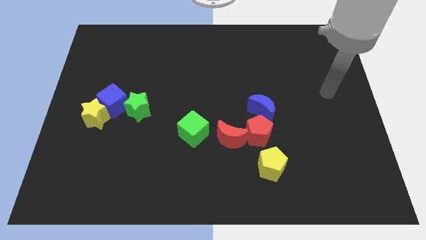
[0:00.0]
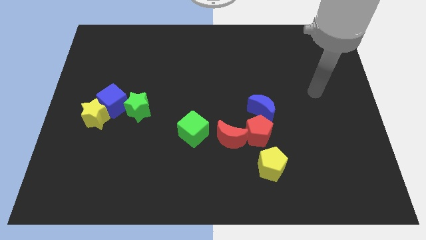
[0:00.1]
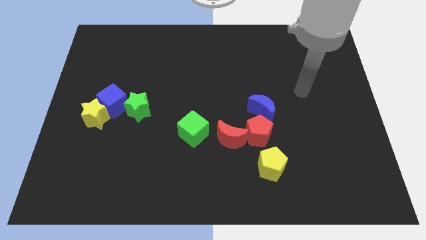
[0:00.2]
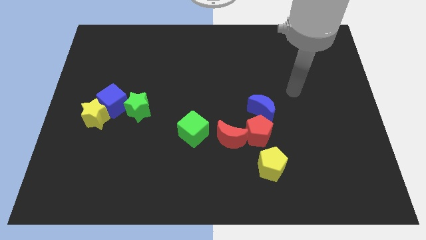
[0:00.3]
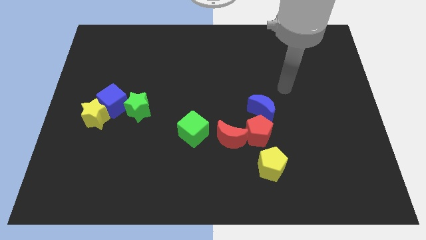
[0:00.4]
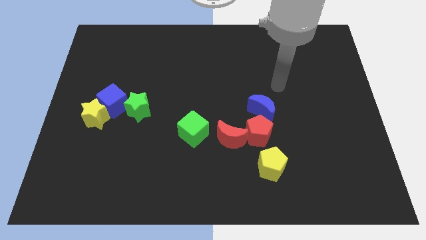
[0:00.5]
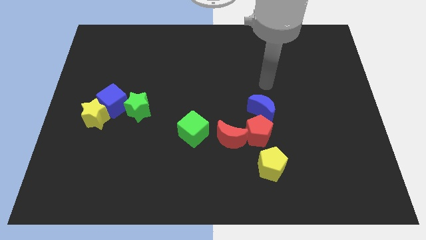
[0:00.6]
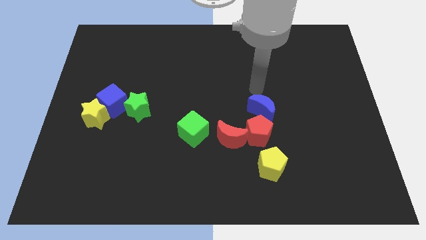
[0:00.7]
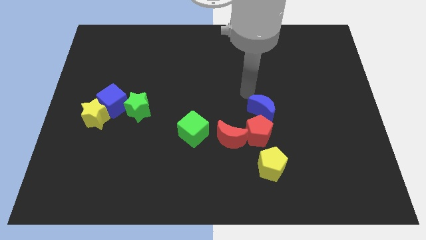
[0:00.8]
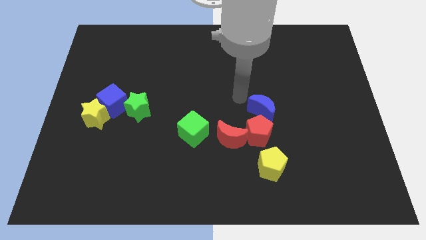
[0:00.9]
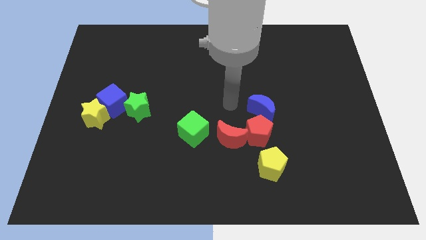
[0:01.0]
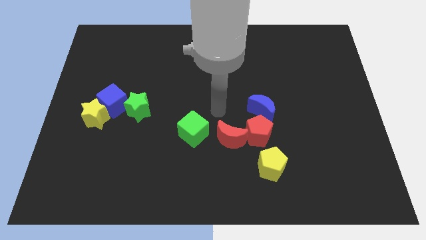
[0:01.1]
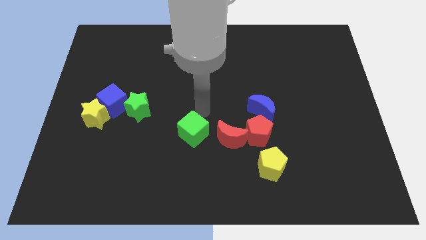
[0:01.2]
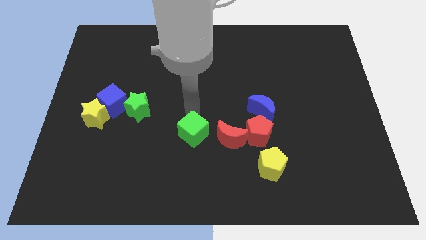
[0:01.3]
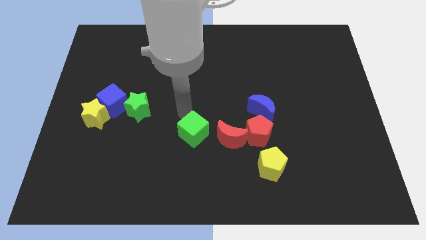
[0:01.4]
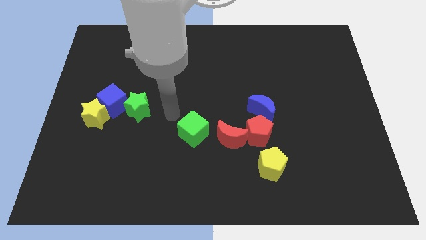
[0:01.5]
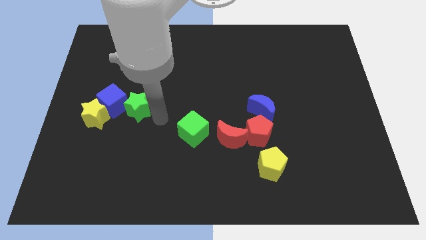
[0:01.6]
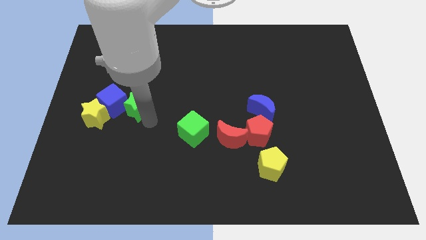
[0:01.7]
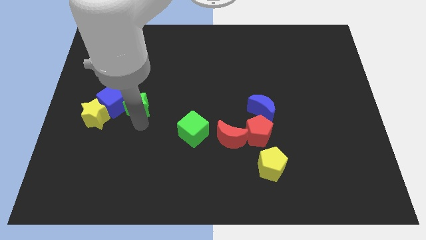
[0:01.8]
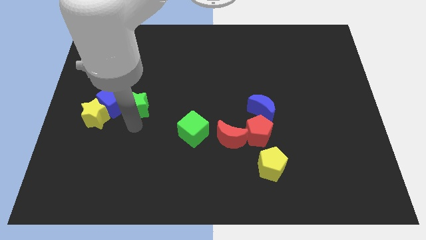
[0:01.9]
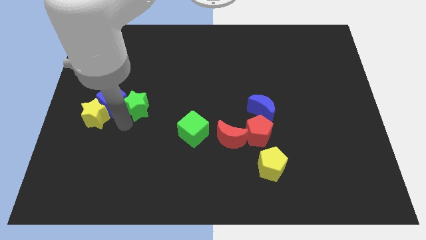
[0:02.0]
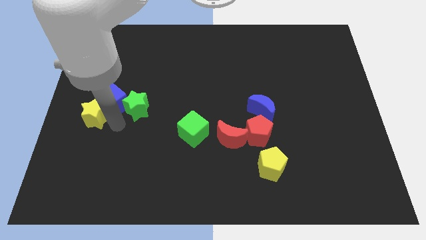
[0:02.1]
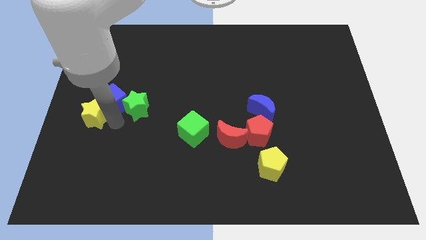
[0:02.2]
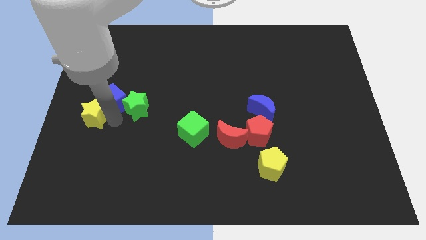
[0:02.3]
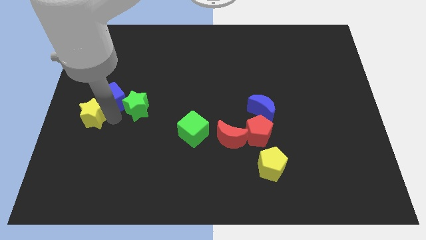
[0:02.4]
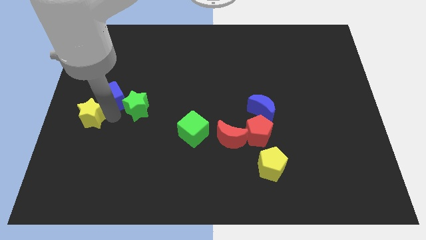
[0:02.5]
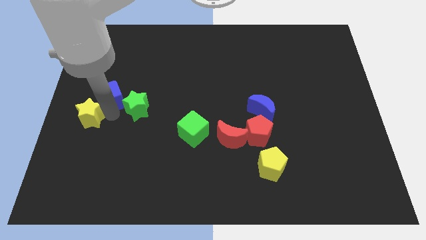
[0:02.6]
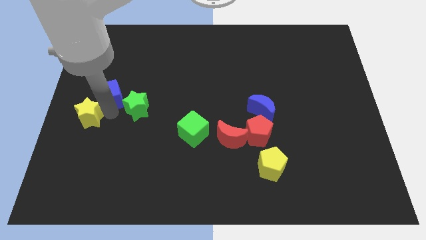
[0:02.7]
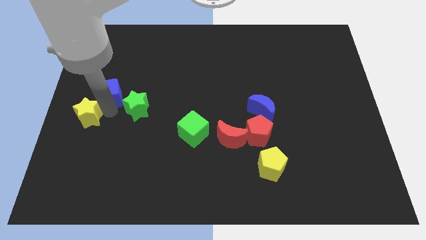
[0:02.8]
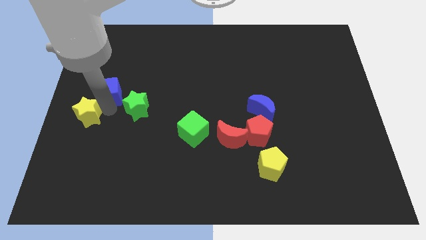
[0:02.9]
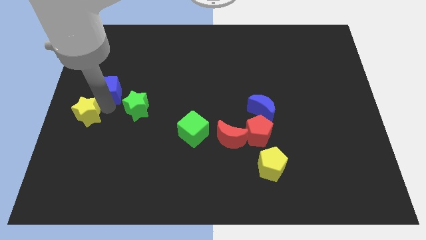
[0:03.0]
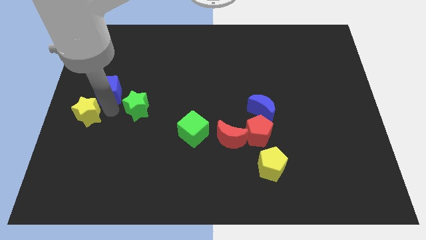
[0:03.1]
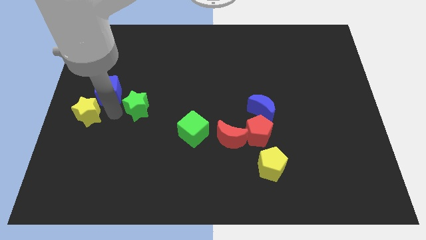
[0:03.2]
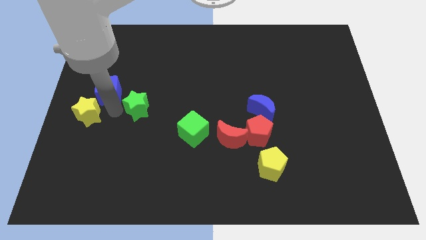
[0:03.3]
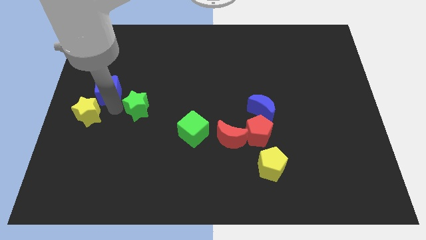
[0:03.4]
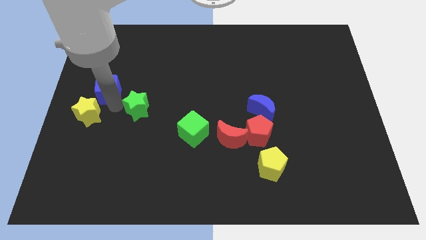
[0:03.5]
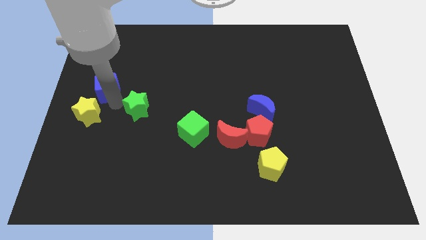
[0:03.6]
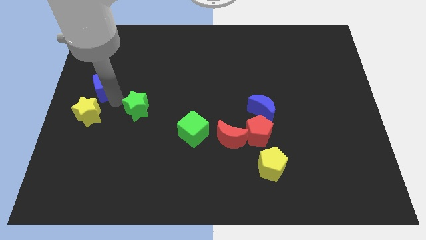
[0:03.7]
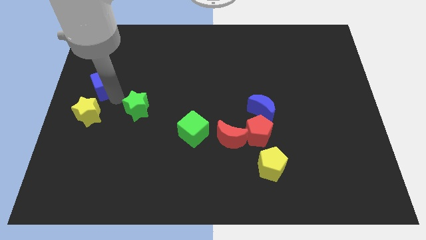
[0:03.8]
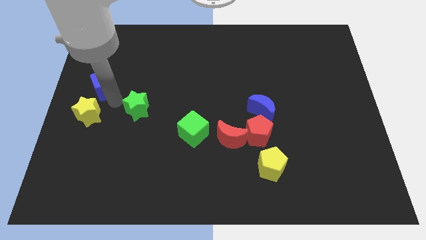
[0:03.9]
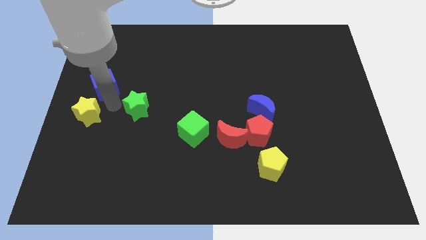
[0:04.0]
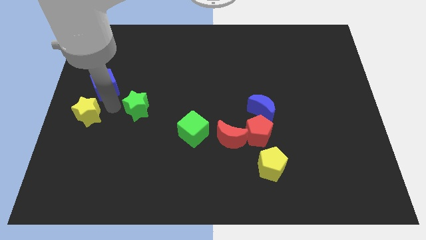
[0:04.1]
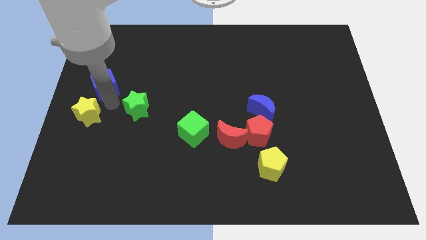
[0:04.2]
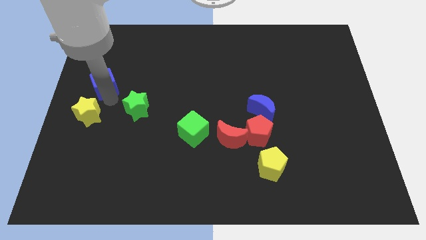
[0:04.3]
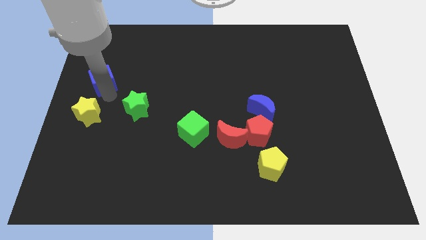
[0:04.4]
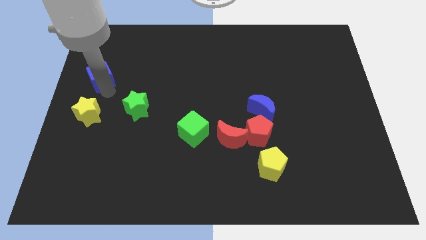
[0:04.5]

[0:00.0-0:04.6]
move the blue cube away from the yellow star and green star

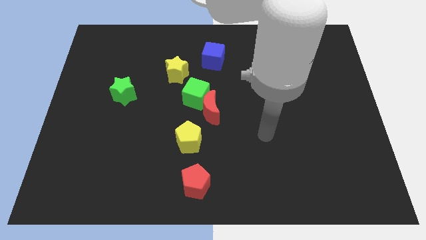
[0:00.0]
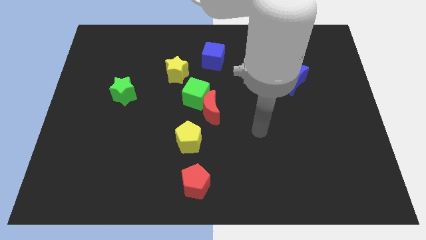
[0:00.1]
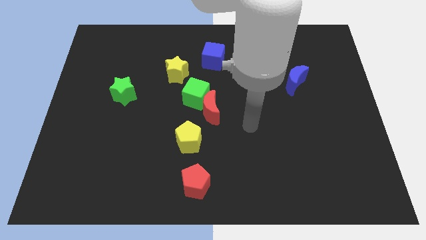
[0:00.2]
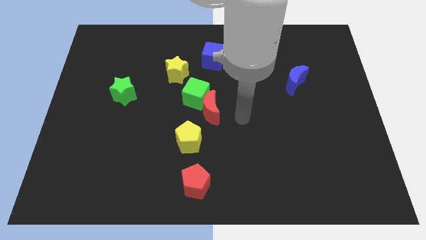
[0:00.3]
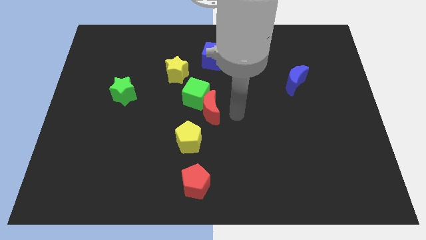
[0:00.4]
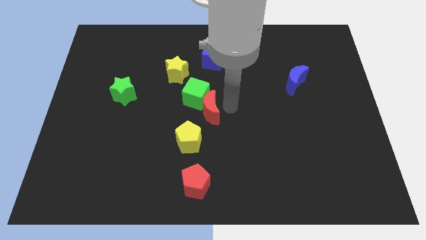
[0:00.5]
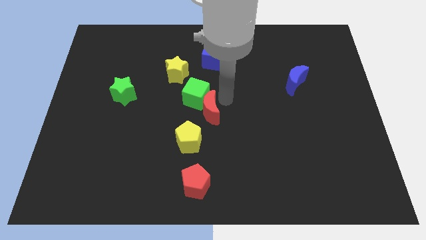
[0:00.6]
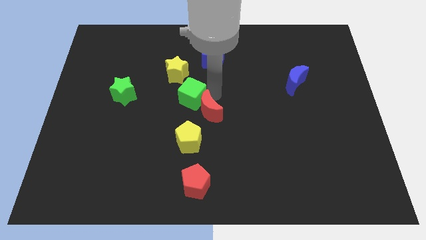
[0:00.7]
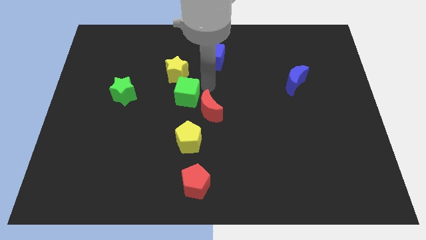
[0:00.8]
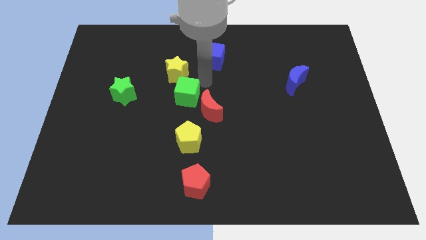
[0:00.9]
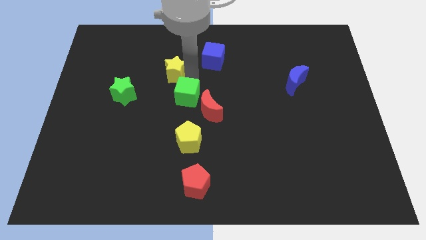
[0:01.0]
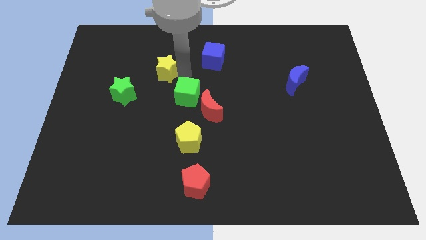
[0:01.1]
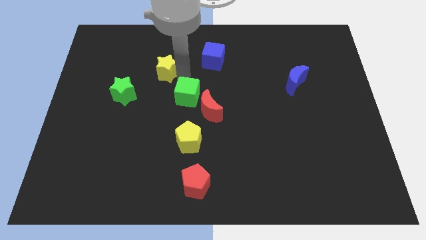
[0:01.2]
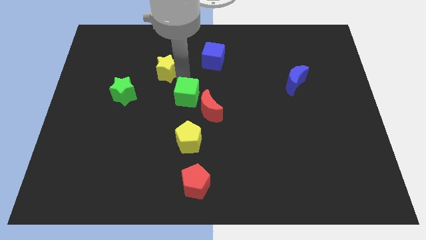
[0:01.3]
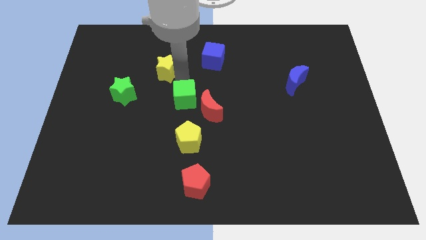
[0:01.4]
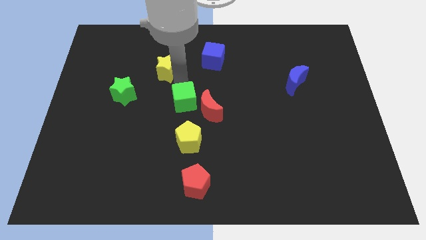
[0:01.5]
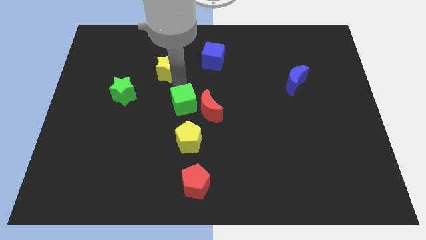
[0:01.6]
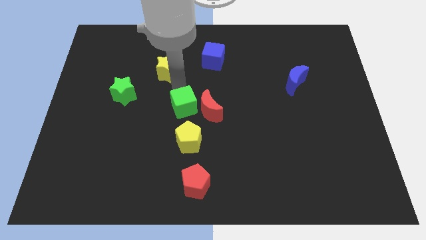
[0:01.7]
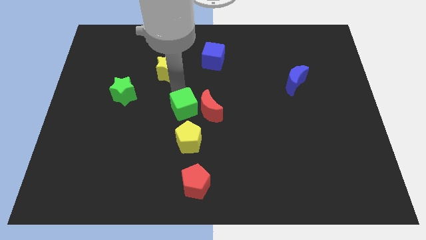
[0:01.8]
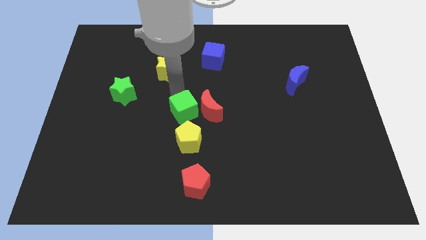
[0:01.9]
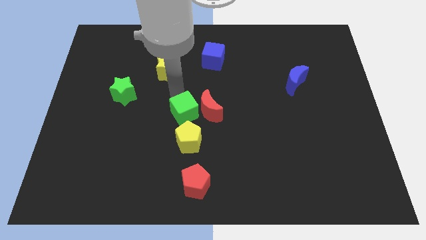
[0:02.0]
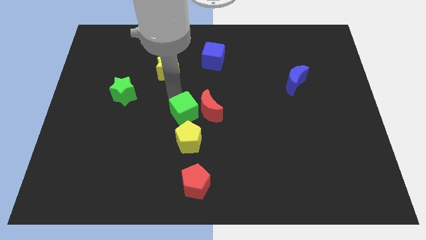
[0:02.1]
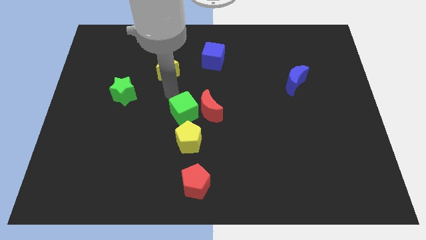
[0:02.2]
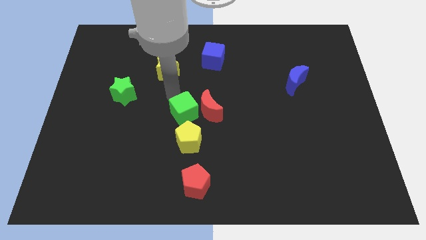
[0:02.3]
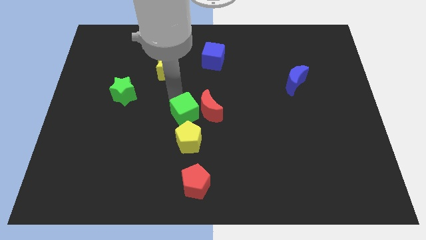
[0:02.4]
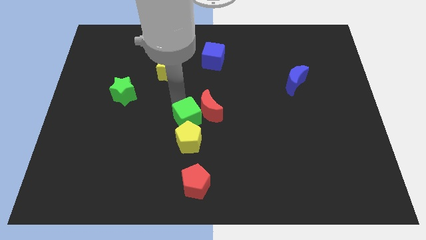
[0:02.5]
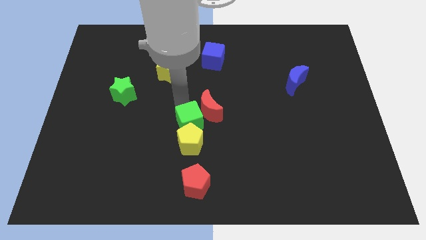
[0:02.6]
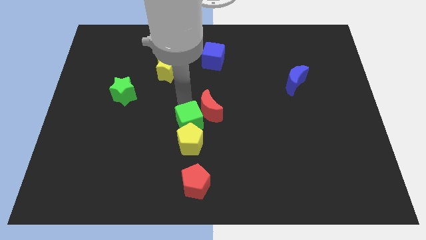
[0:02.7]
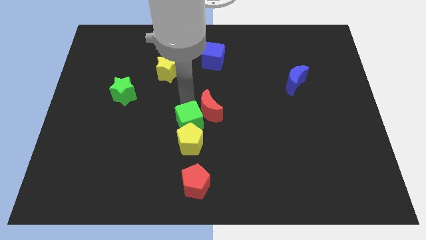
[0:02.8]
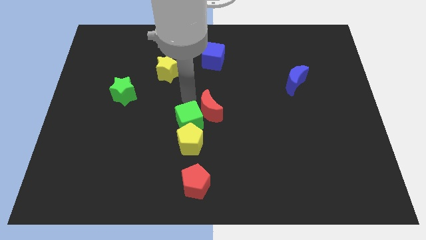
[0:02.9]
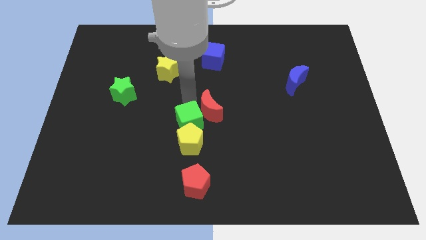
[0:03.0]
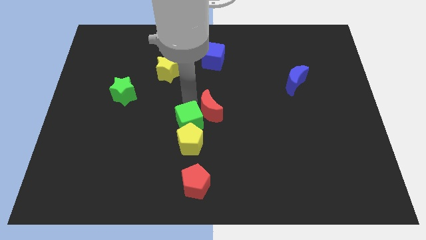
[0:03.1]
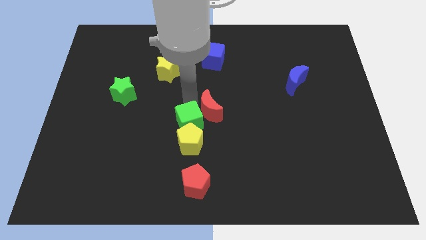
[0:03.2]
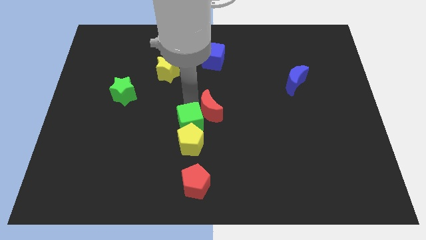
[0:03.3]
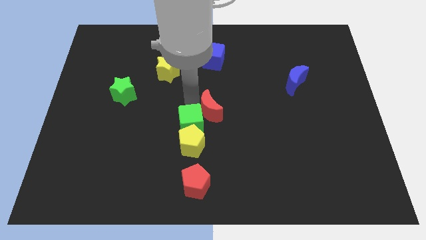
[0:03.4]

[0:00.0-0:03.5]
separate the green cube from the red moon and yellow star

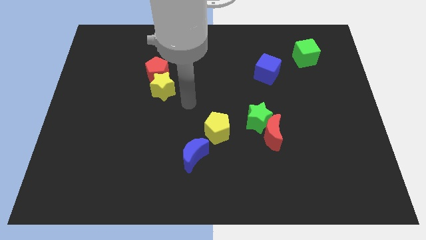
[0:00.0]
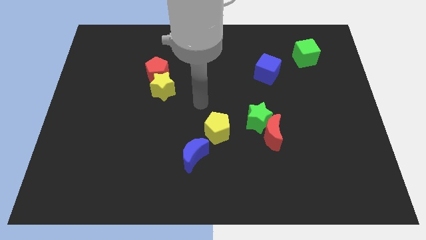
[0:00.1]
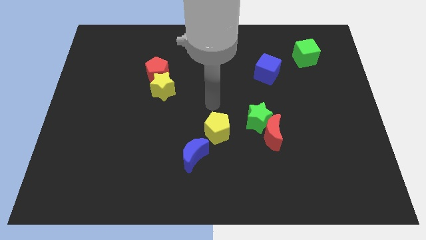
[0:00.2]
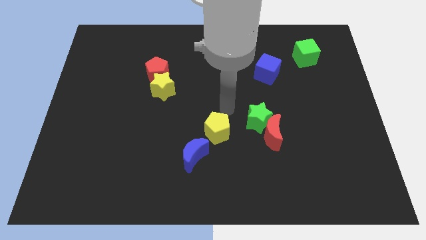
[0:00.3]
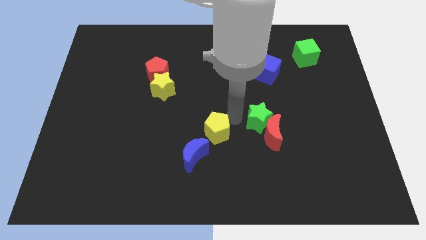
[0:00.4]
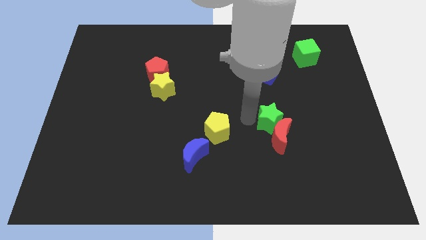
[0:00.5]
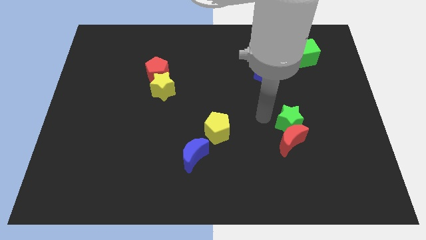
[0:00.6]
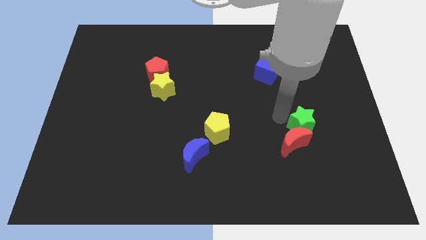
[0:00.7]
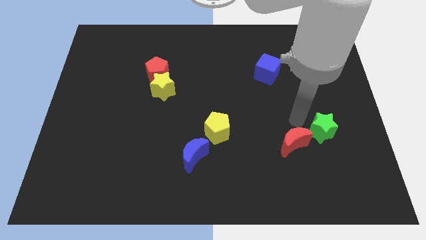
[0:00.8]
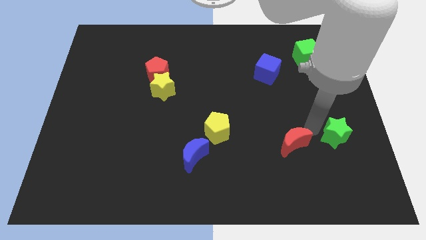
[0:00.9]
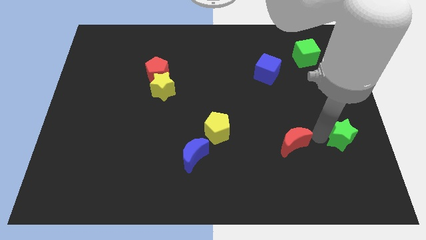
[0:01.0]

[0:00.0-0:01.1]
move the red moon away from the green star

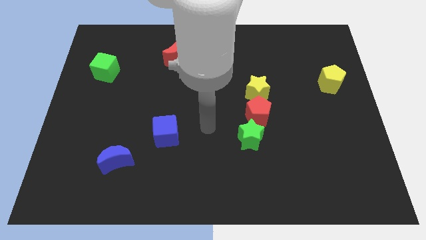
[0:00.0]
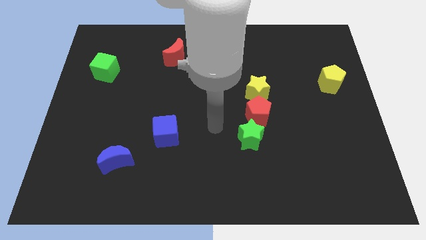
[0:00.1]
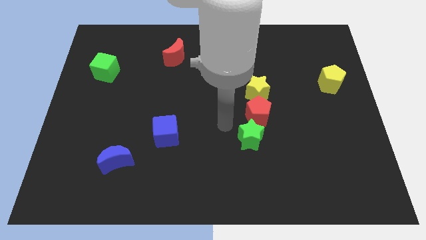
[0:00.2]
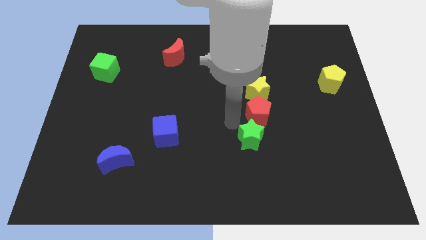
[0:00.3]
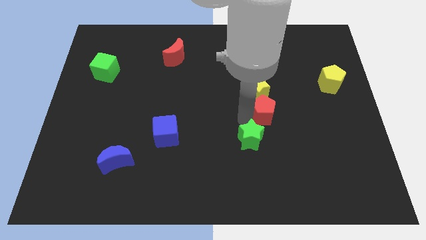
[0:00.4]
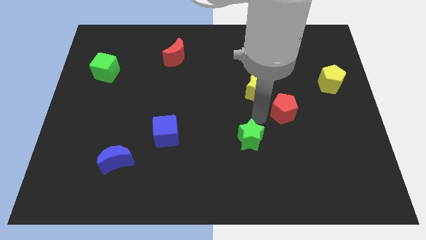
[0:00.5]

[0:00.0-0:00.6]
pull the green star apart from the red pentagon
